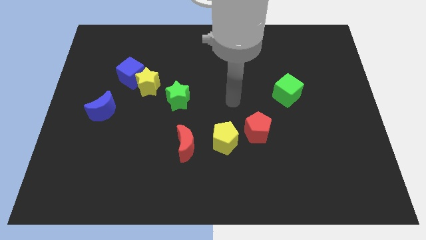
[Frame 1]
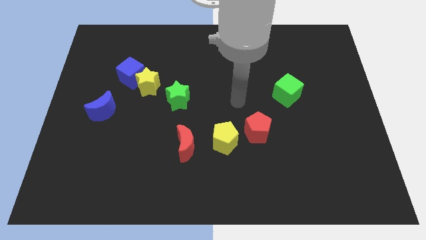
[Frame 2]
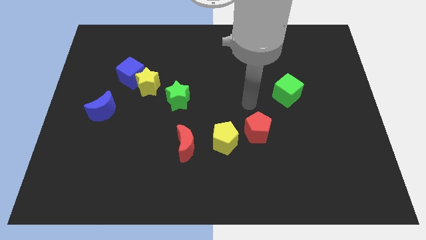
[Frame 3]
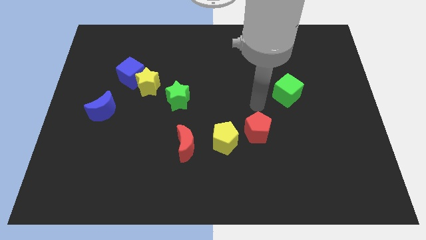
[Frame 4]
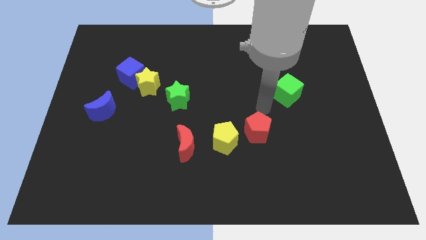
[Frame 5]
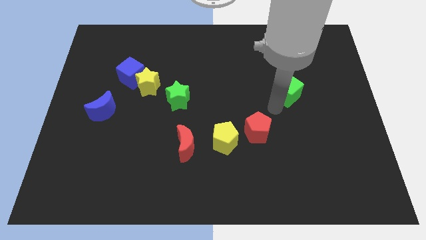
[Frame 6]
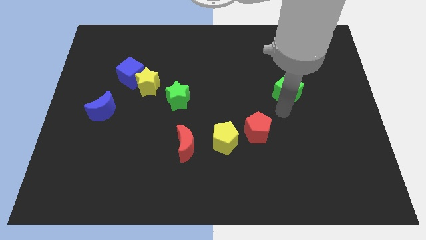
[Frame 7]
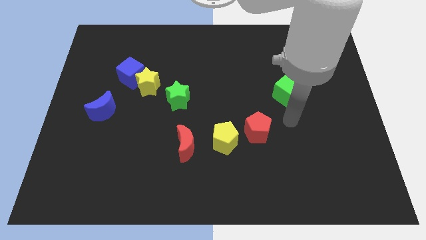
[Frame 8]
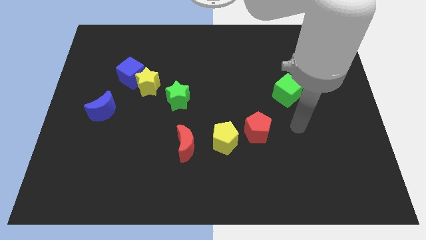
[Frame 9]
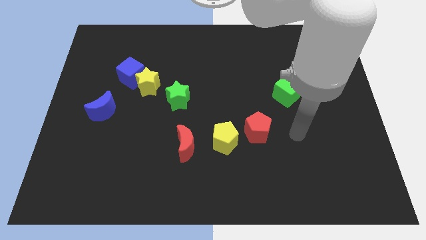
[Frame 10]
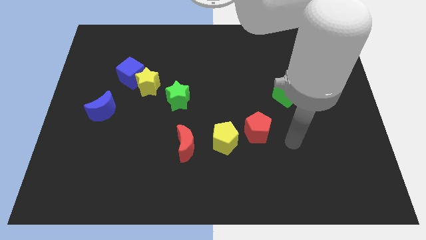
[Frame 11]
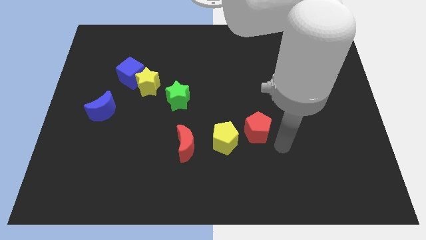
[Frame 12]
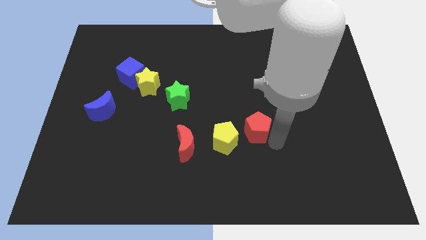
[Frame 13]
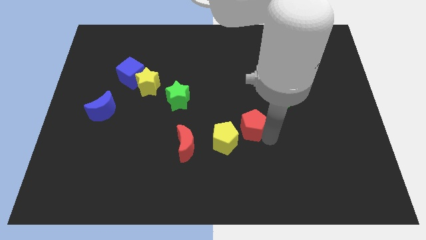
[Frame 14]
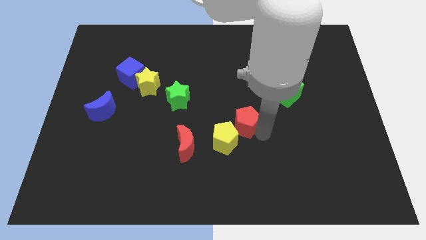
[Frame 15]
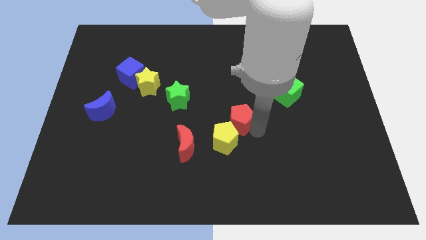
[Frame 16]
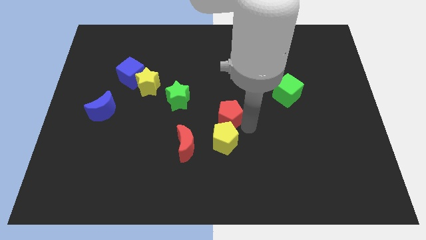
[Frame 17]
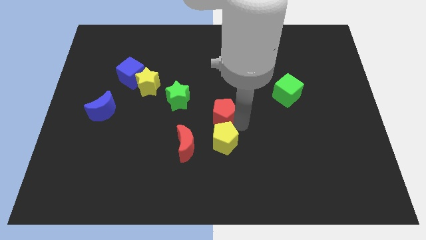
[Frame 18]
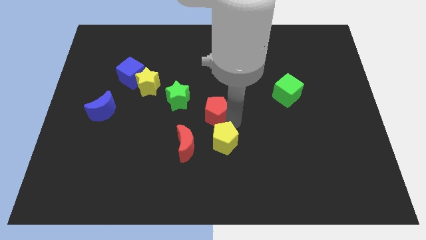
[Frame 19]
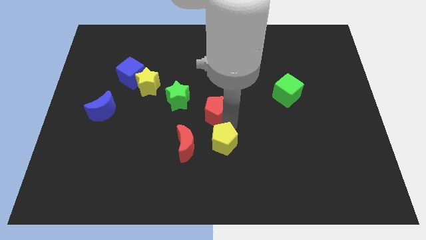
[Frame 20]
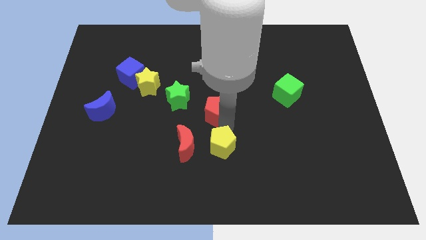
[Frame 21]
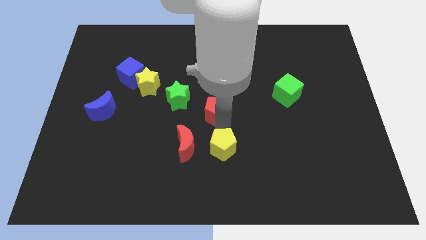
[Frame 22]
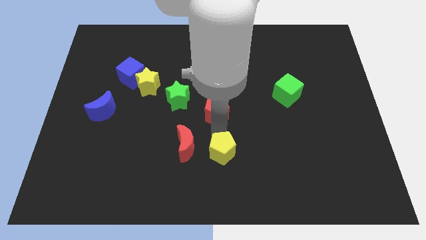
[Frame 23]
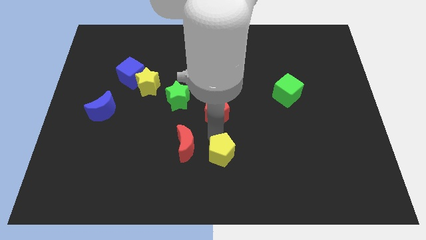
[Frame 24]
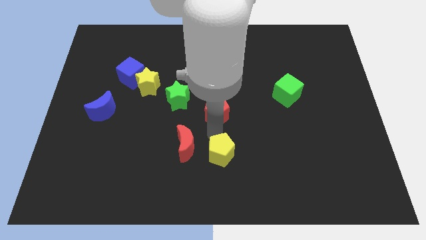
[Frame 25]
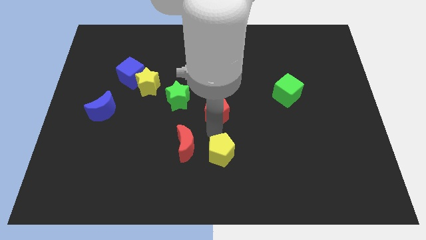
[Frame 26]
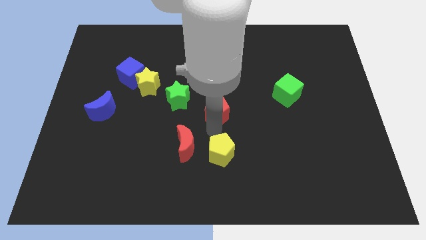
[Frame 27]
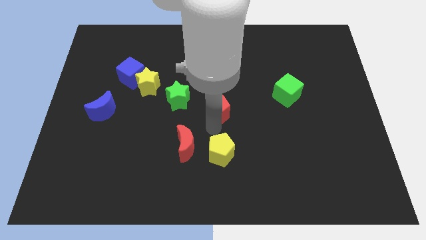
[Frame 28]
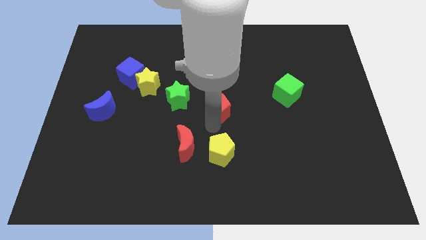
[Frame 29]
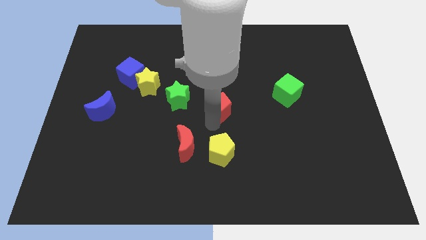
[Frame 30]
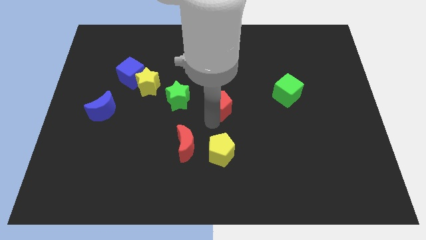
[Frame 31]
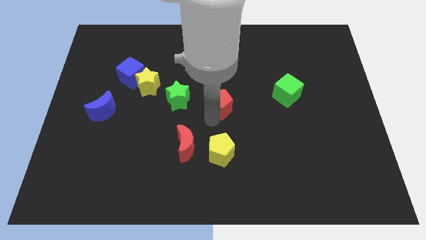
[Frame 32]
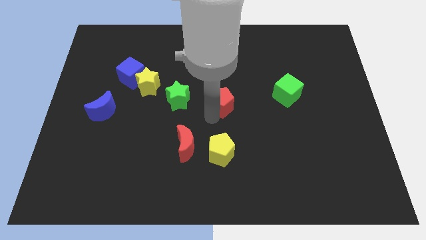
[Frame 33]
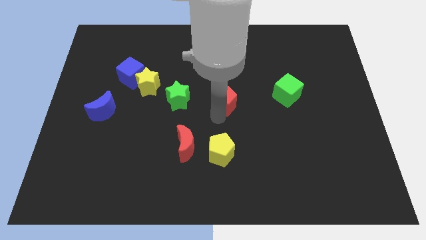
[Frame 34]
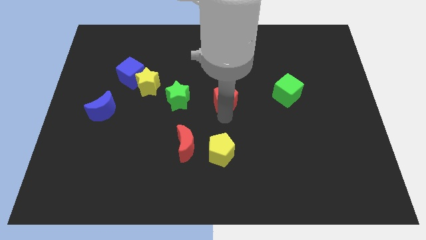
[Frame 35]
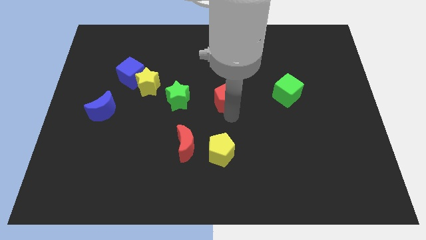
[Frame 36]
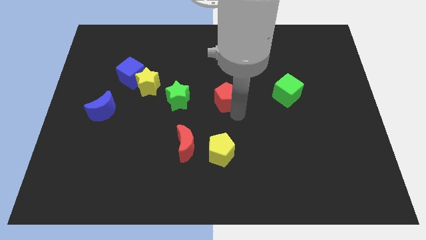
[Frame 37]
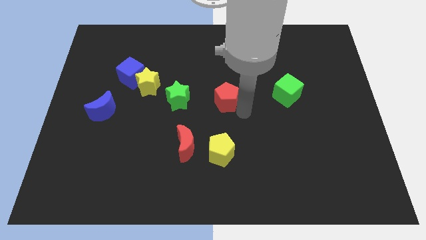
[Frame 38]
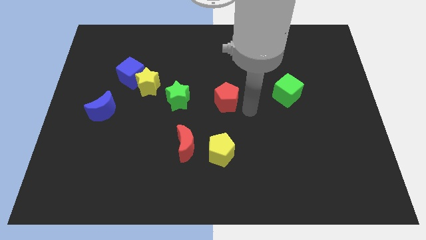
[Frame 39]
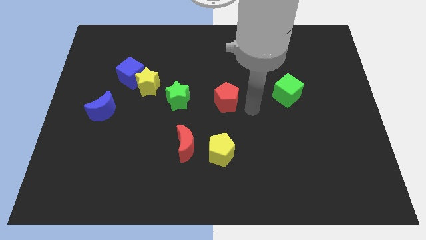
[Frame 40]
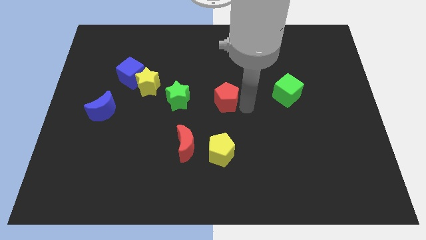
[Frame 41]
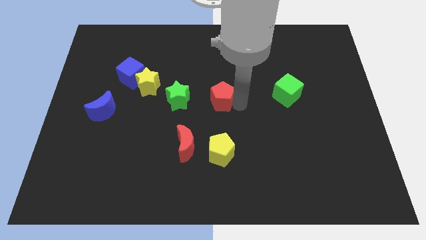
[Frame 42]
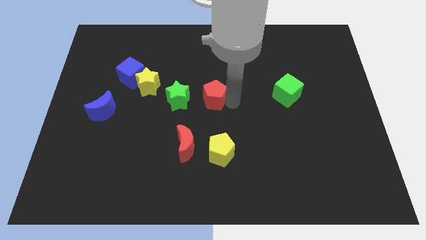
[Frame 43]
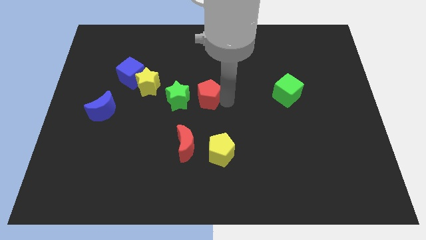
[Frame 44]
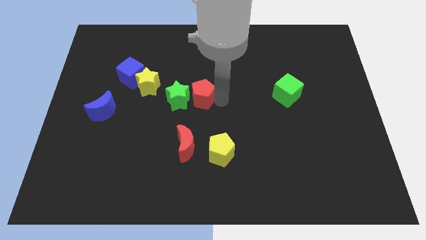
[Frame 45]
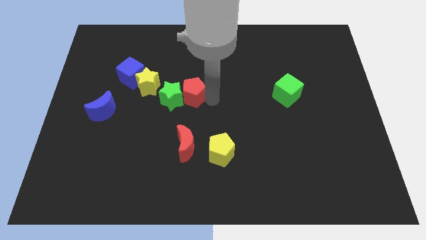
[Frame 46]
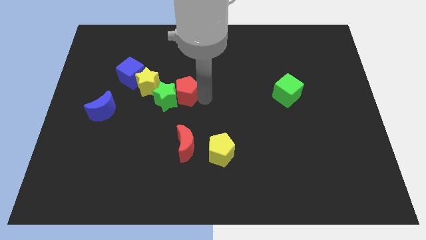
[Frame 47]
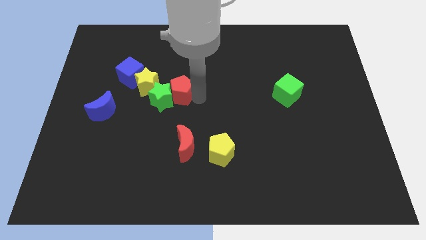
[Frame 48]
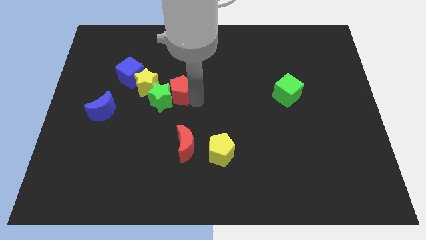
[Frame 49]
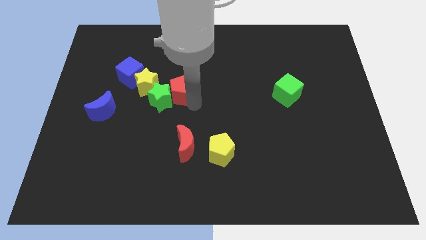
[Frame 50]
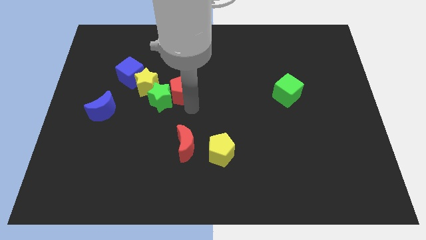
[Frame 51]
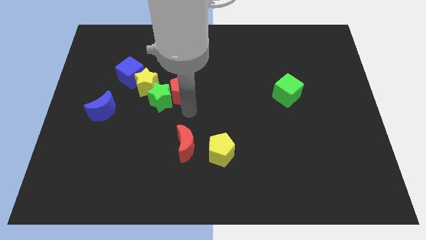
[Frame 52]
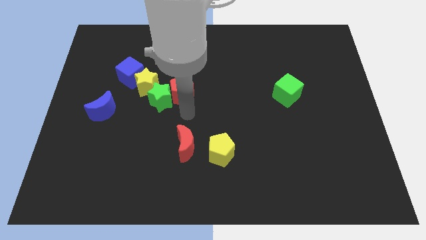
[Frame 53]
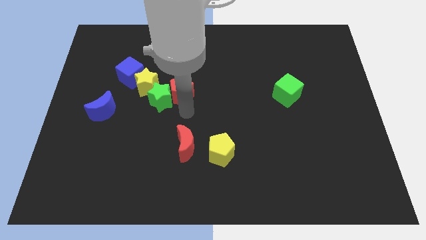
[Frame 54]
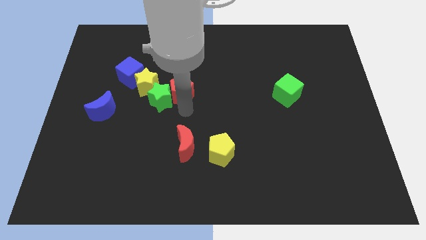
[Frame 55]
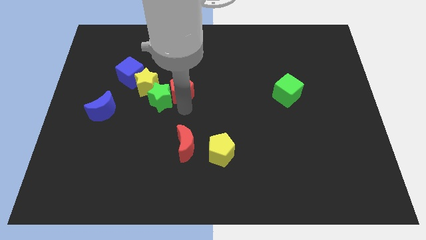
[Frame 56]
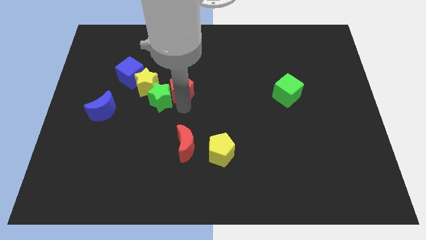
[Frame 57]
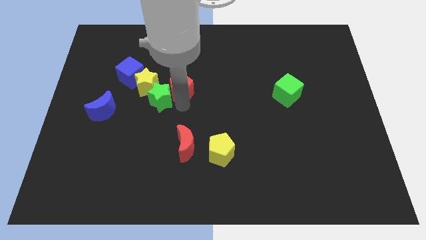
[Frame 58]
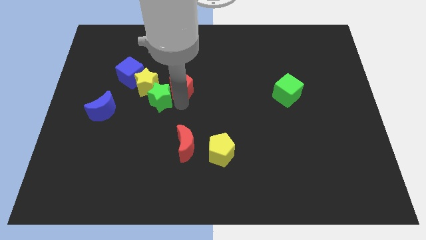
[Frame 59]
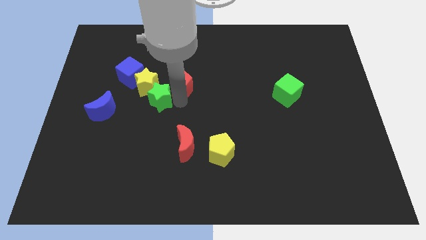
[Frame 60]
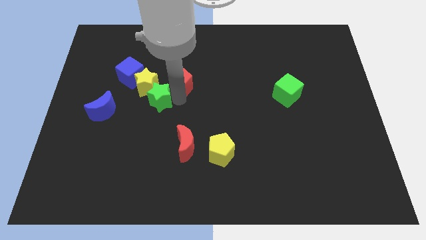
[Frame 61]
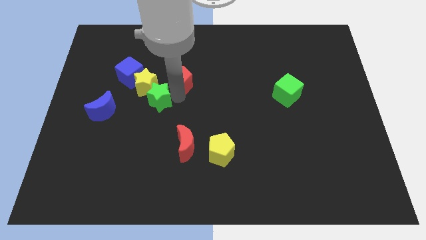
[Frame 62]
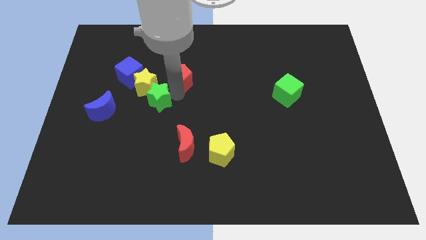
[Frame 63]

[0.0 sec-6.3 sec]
push the red pentagon to the top right side of the yellow star
